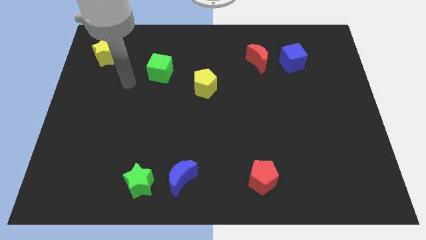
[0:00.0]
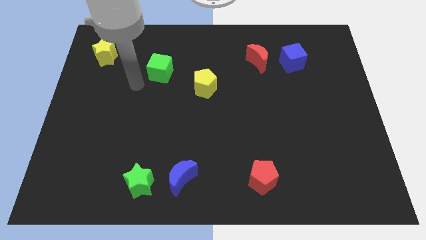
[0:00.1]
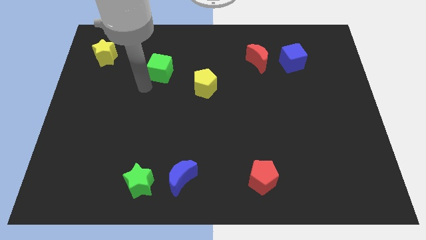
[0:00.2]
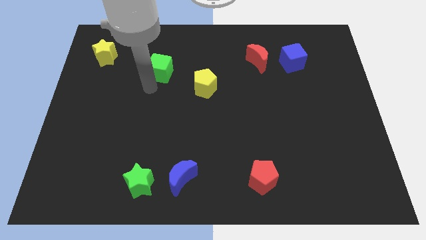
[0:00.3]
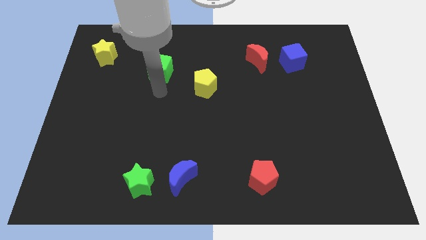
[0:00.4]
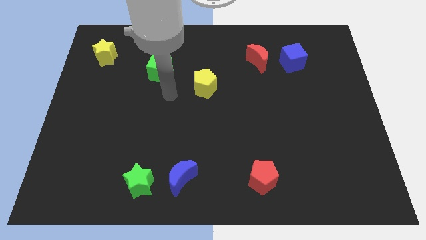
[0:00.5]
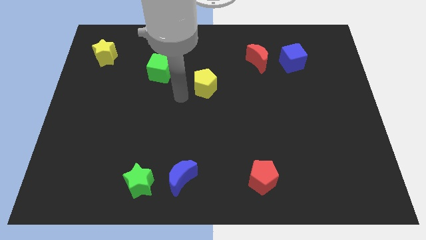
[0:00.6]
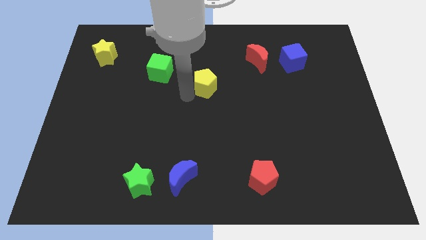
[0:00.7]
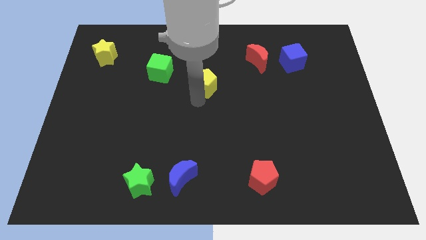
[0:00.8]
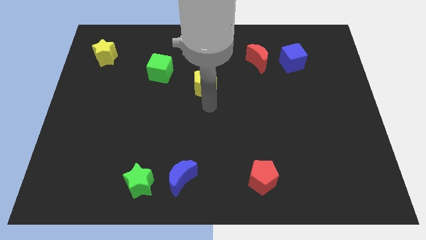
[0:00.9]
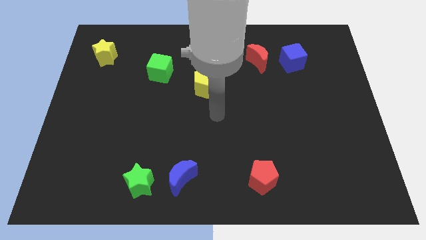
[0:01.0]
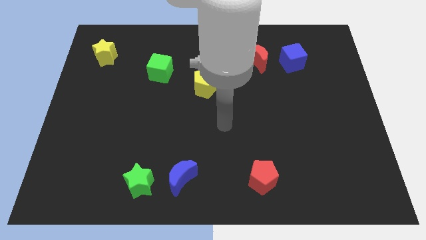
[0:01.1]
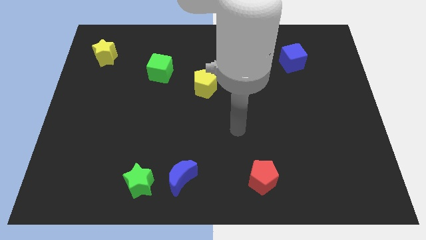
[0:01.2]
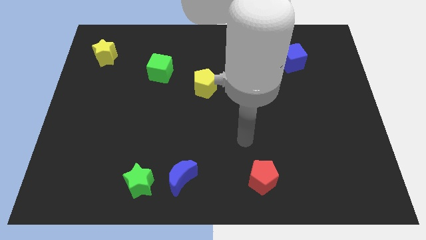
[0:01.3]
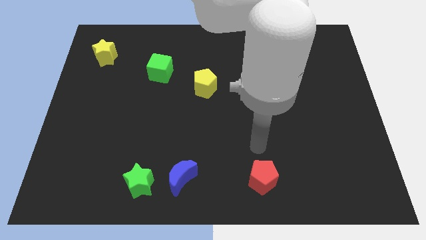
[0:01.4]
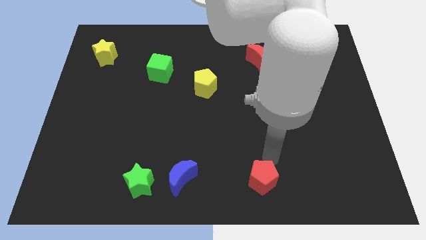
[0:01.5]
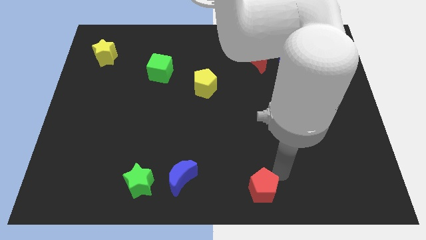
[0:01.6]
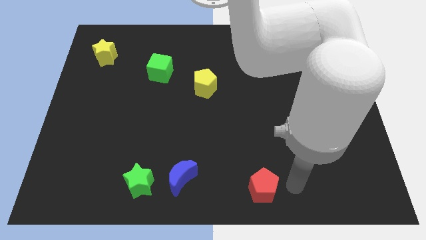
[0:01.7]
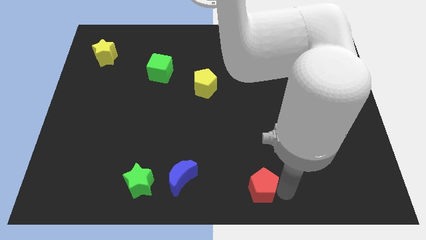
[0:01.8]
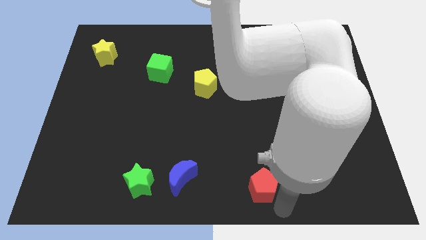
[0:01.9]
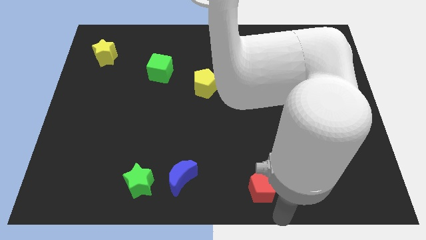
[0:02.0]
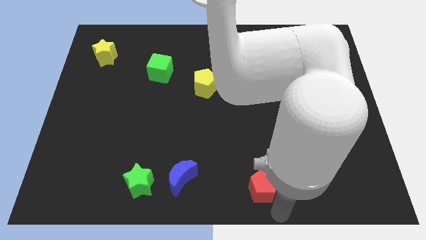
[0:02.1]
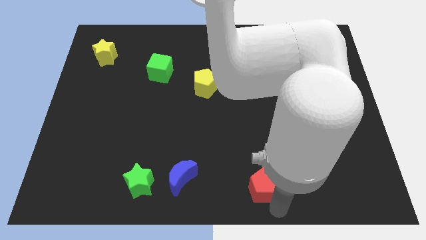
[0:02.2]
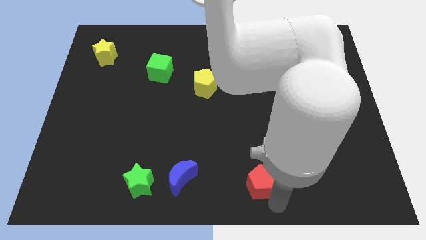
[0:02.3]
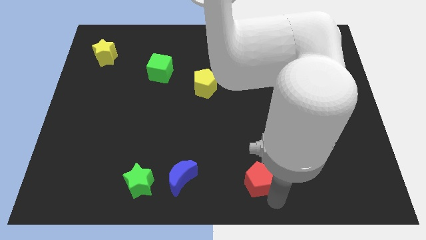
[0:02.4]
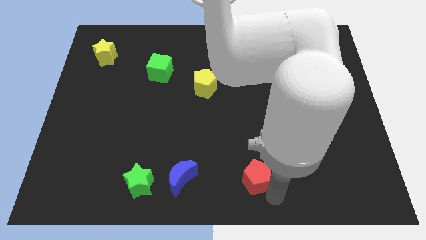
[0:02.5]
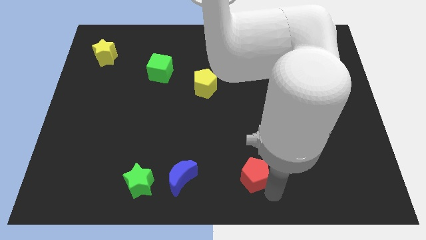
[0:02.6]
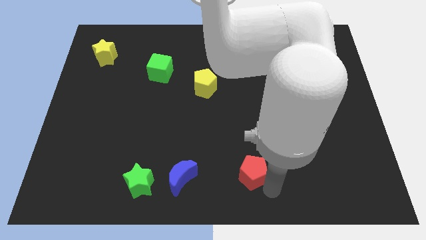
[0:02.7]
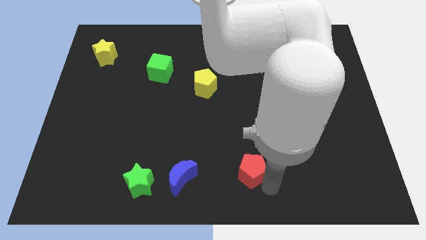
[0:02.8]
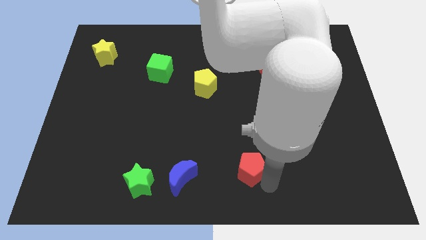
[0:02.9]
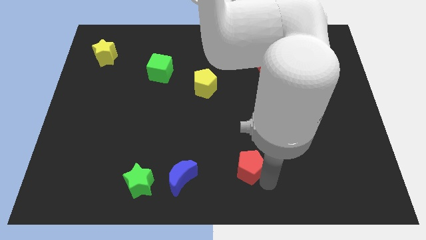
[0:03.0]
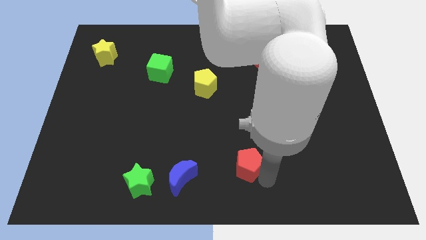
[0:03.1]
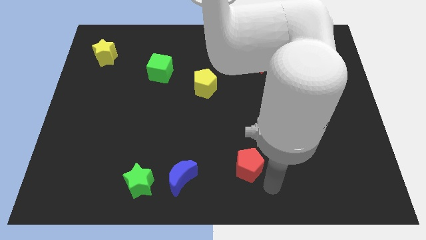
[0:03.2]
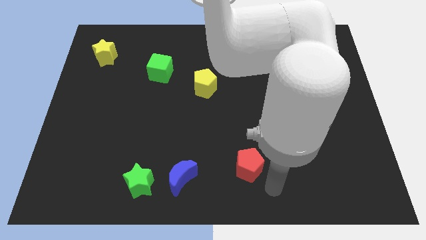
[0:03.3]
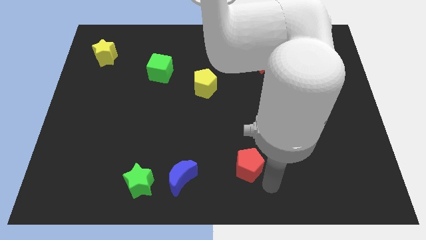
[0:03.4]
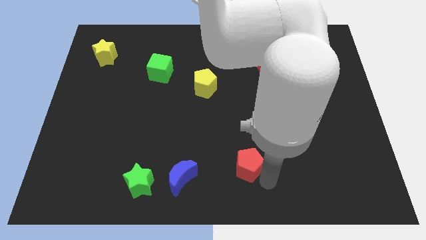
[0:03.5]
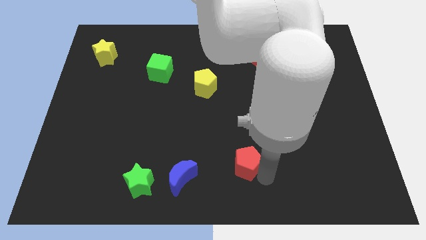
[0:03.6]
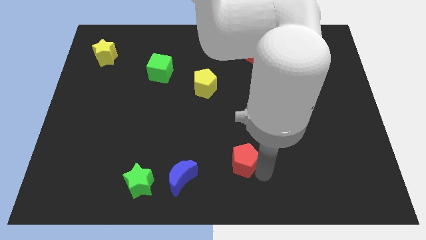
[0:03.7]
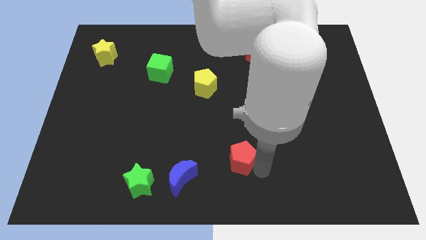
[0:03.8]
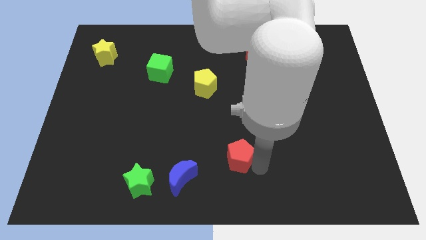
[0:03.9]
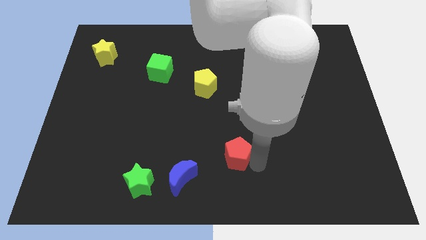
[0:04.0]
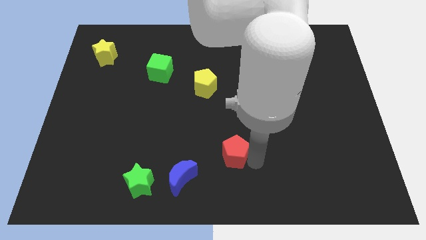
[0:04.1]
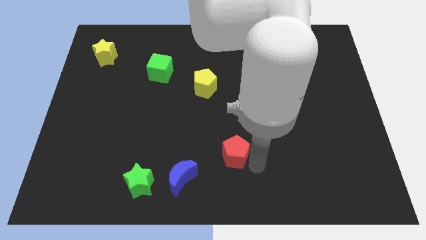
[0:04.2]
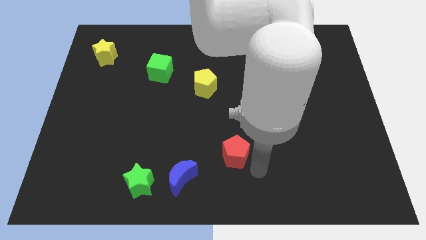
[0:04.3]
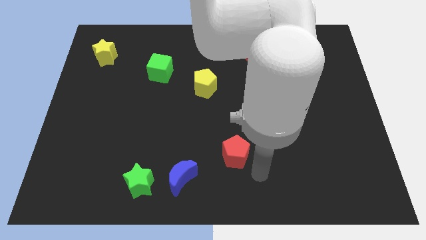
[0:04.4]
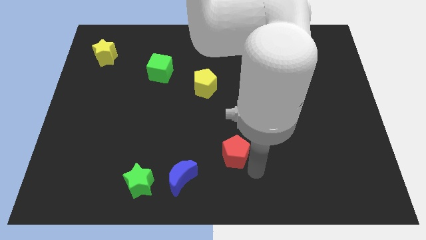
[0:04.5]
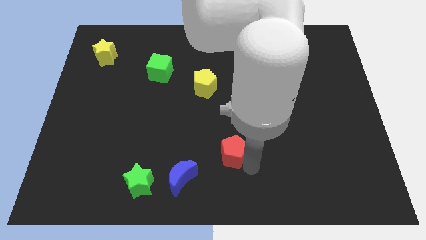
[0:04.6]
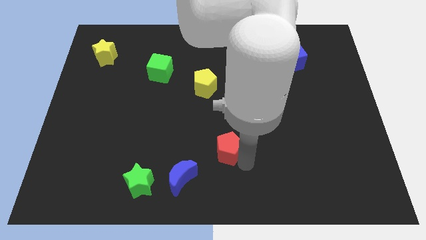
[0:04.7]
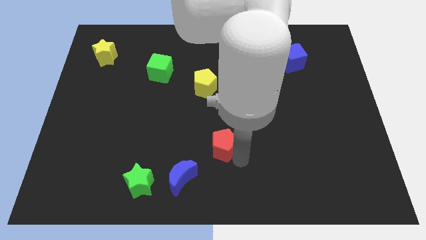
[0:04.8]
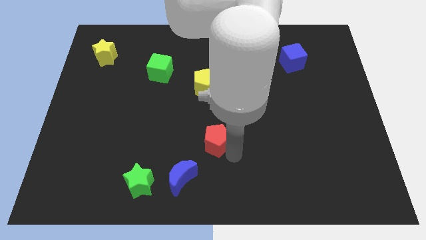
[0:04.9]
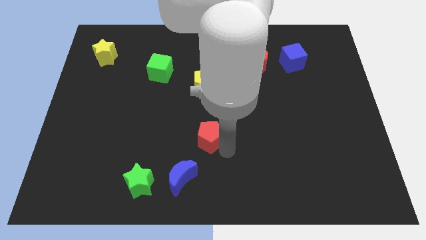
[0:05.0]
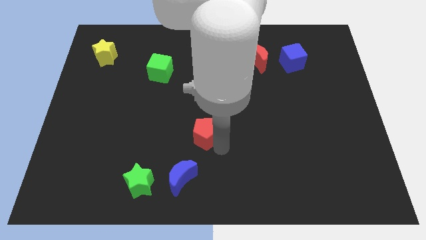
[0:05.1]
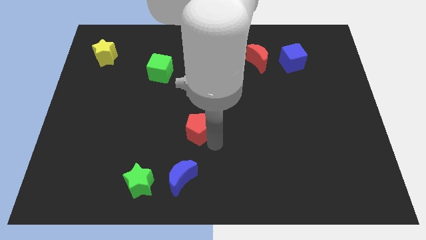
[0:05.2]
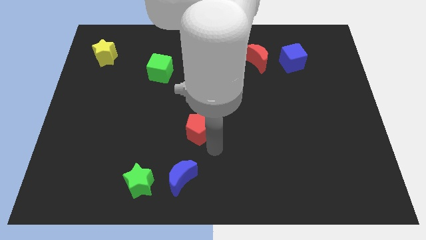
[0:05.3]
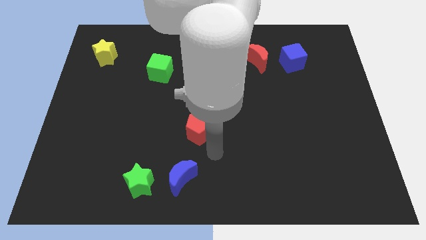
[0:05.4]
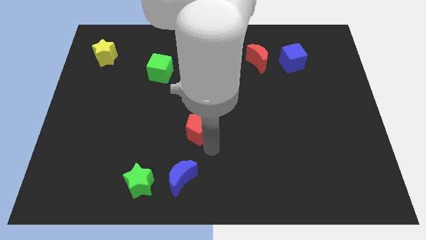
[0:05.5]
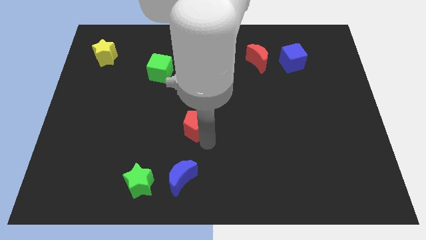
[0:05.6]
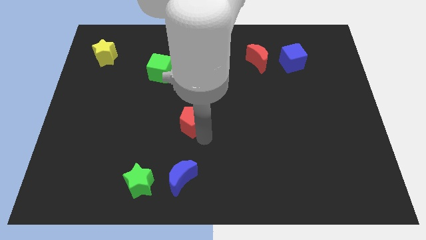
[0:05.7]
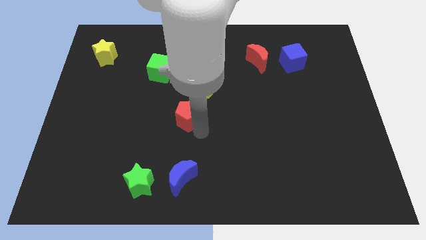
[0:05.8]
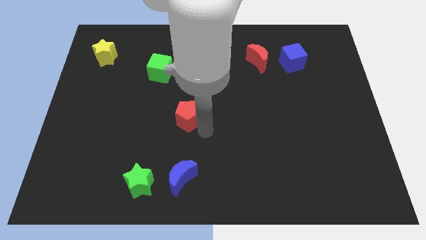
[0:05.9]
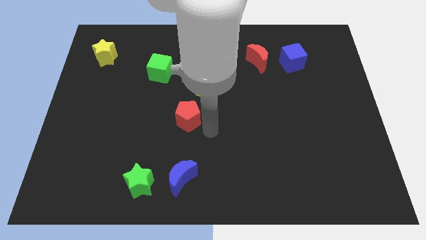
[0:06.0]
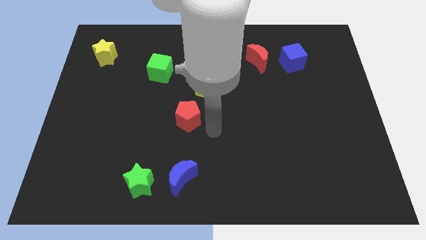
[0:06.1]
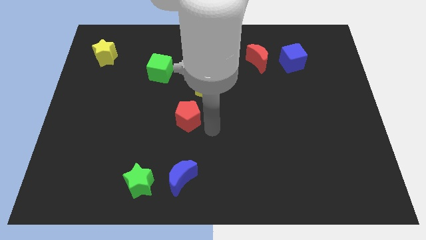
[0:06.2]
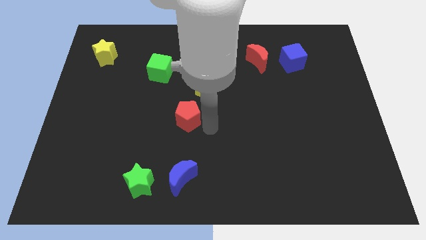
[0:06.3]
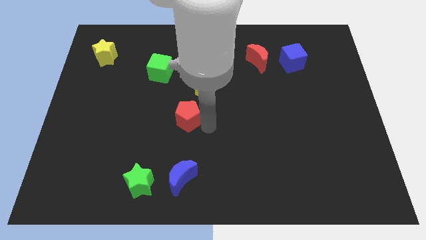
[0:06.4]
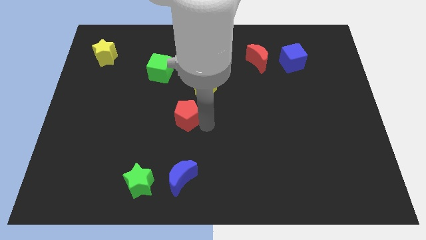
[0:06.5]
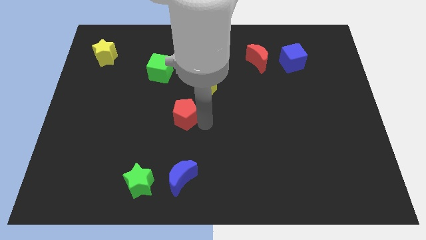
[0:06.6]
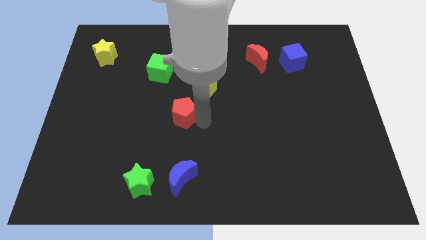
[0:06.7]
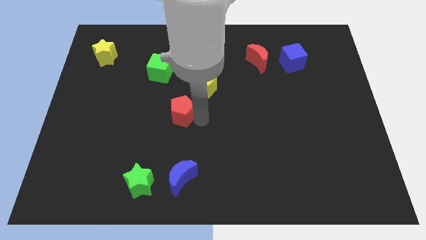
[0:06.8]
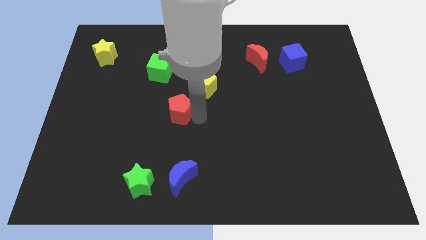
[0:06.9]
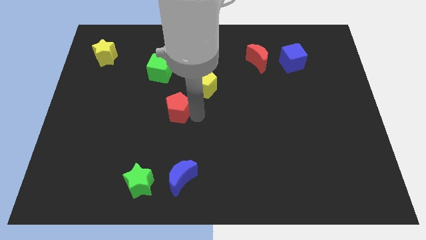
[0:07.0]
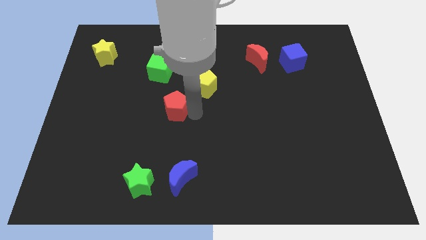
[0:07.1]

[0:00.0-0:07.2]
slide the red pentagon to the bottom side of the green cube

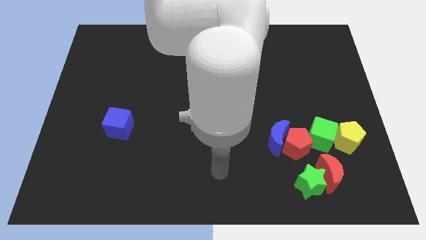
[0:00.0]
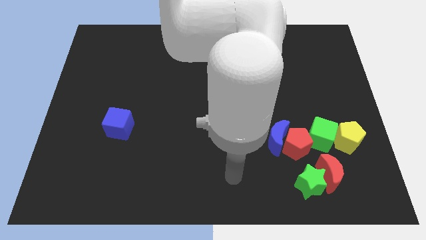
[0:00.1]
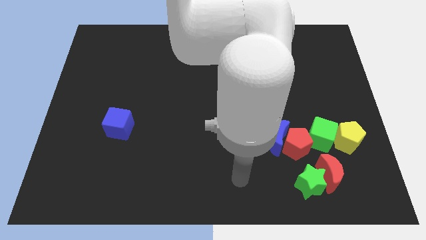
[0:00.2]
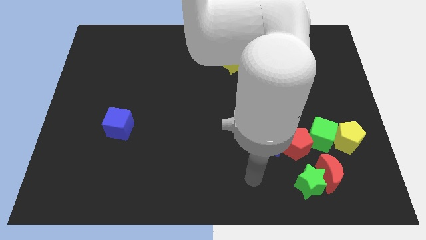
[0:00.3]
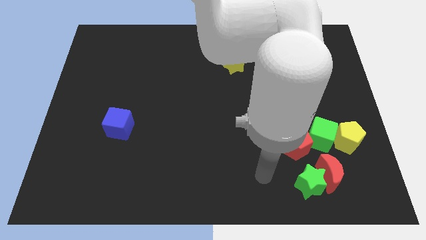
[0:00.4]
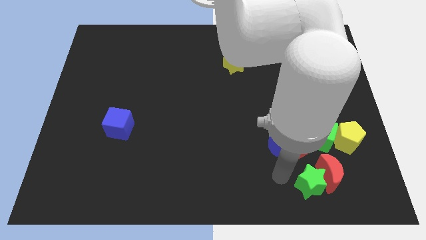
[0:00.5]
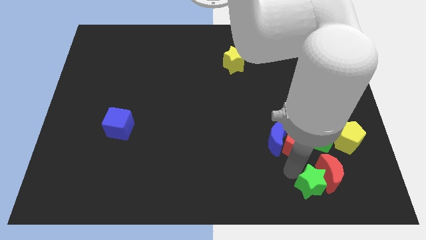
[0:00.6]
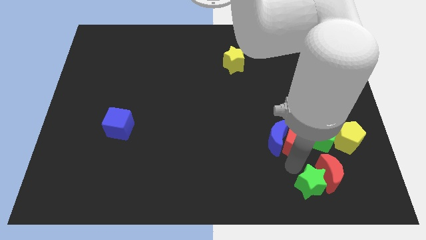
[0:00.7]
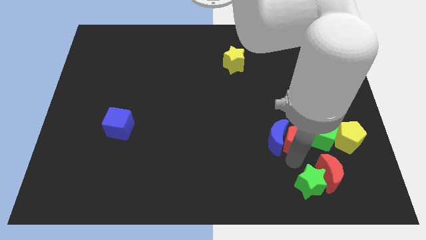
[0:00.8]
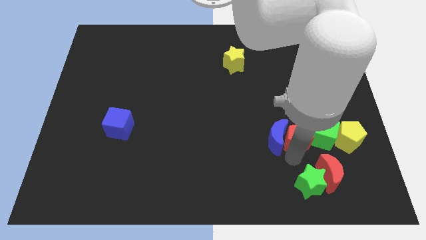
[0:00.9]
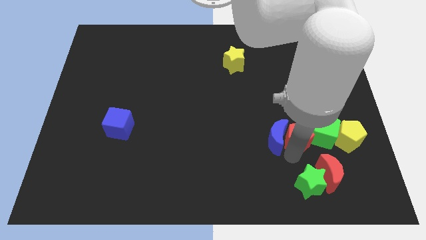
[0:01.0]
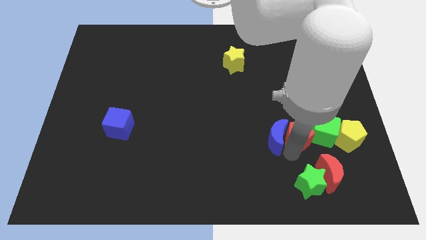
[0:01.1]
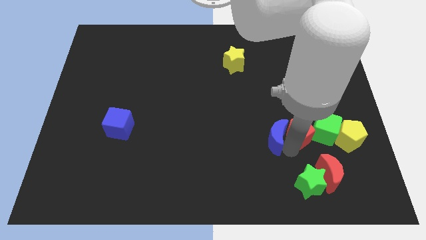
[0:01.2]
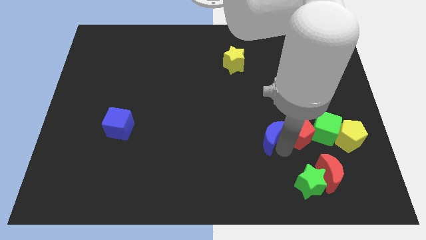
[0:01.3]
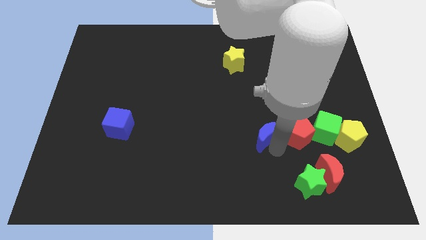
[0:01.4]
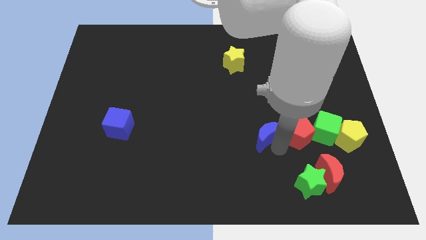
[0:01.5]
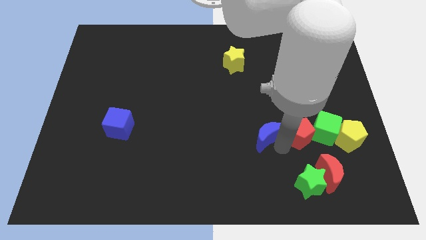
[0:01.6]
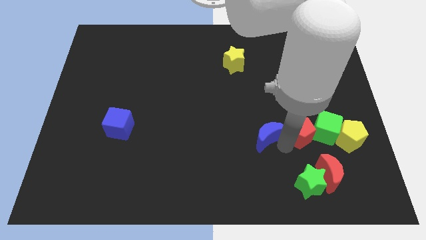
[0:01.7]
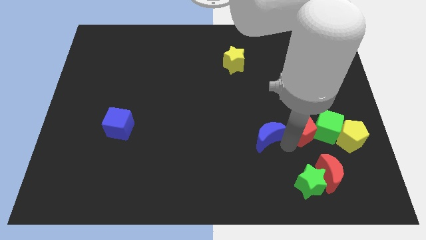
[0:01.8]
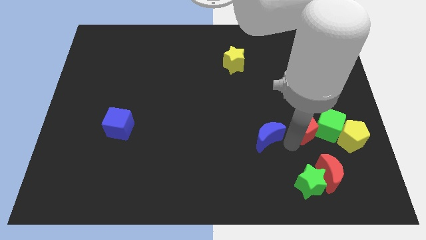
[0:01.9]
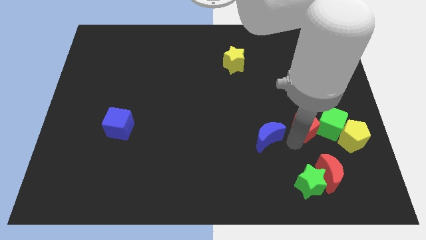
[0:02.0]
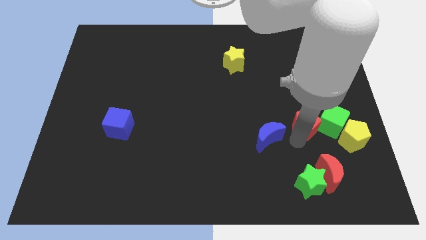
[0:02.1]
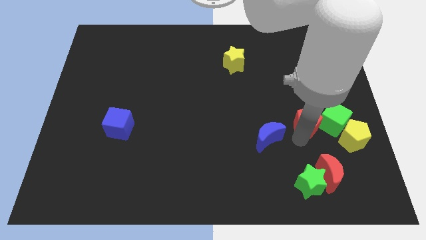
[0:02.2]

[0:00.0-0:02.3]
move the red pentagon to the top left side of the yellow pentagon
